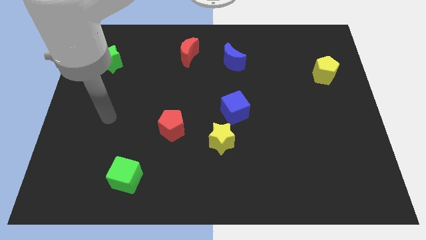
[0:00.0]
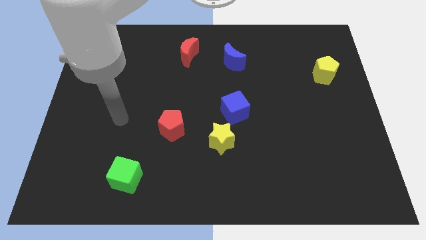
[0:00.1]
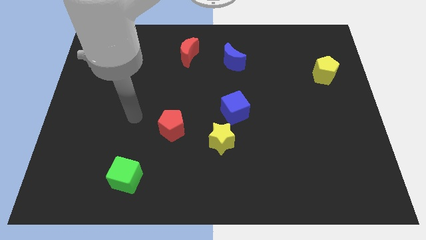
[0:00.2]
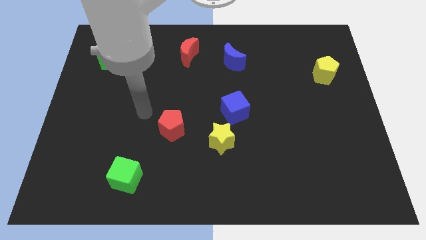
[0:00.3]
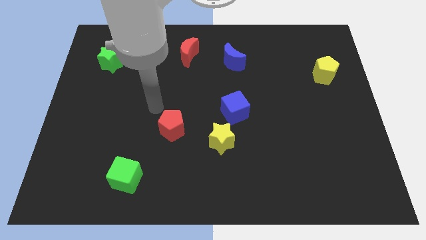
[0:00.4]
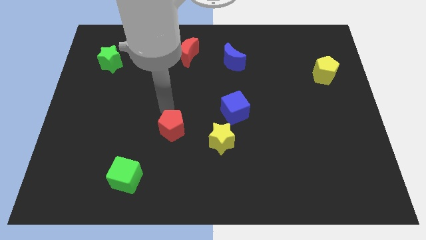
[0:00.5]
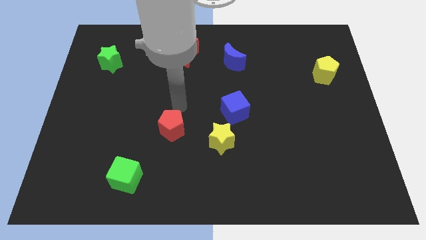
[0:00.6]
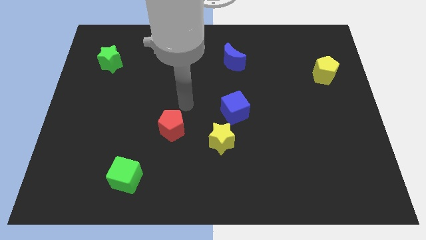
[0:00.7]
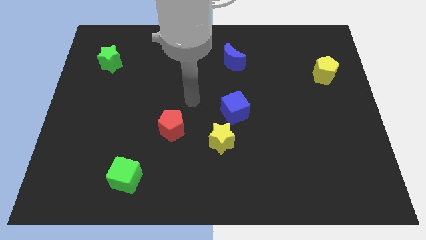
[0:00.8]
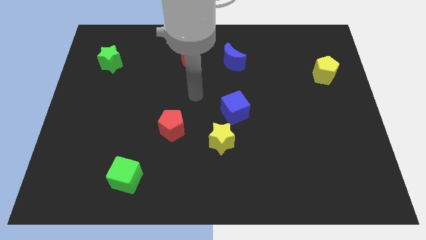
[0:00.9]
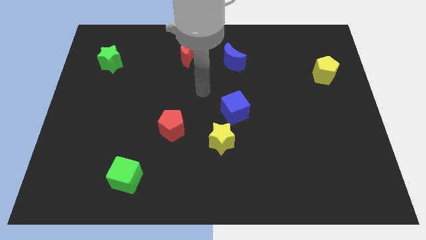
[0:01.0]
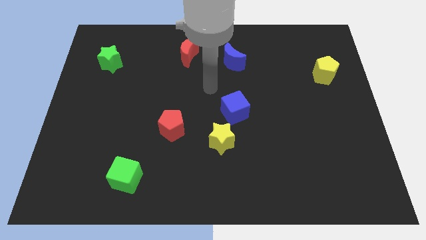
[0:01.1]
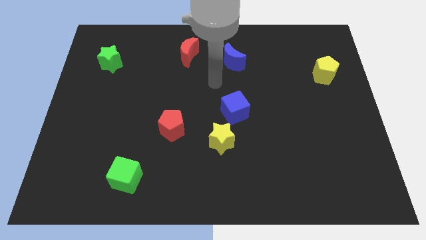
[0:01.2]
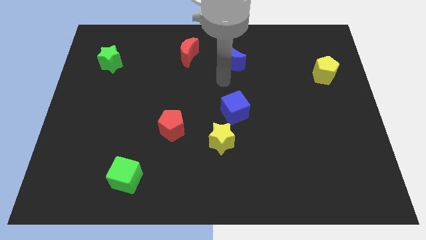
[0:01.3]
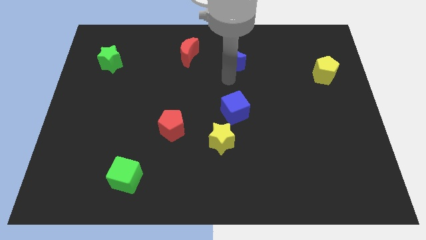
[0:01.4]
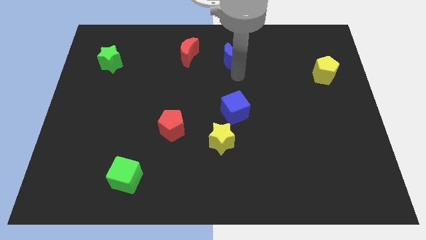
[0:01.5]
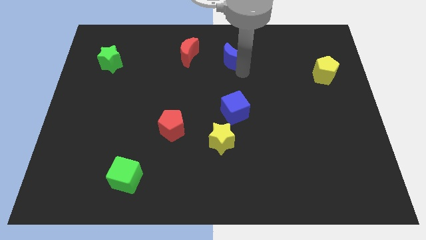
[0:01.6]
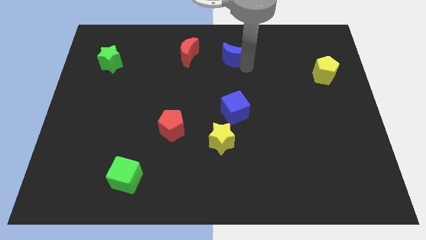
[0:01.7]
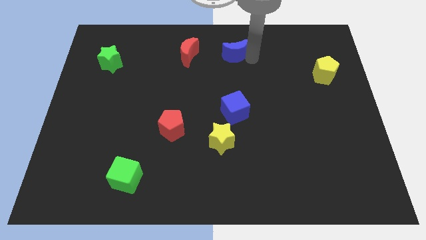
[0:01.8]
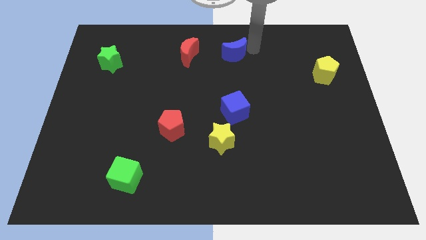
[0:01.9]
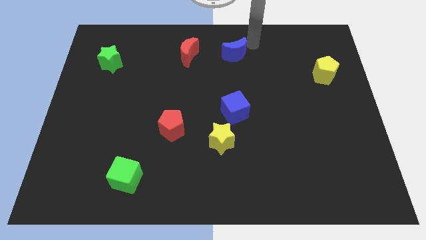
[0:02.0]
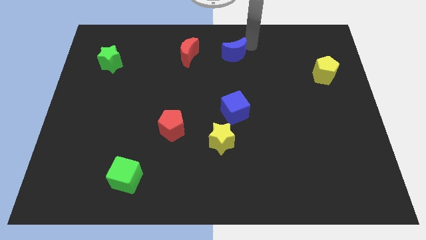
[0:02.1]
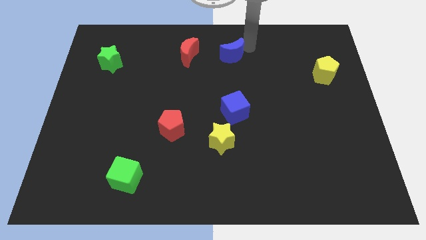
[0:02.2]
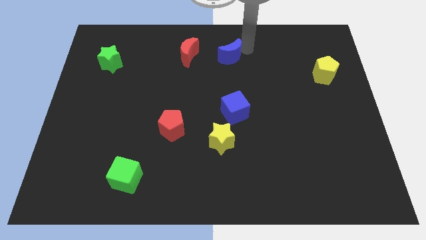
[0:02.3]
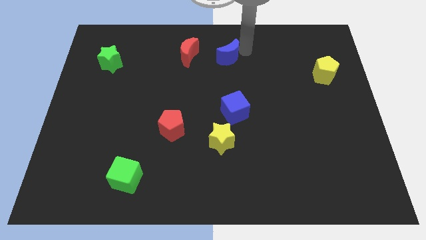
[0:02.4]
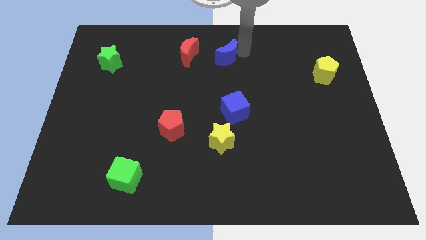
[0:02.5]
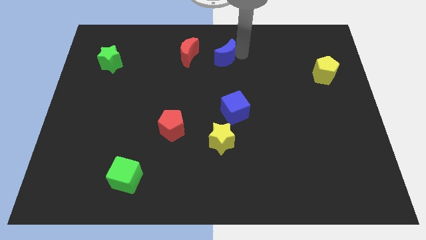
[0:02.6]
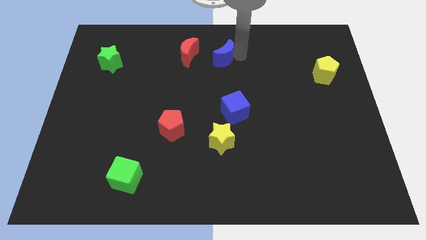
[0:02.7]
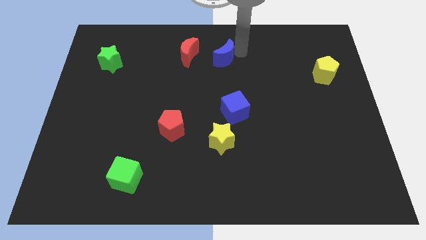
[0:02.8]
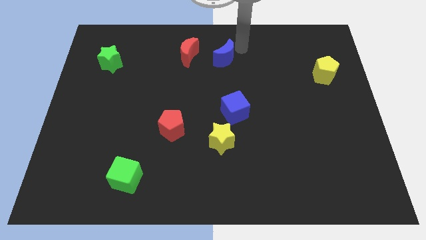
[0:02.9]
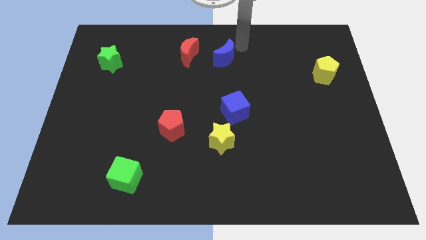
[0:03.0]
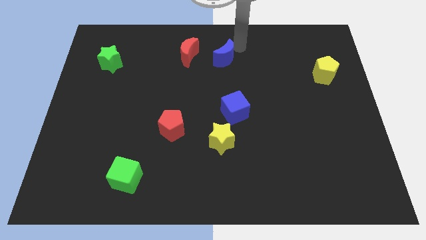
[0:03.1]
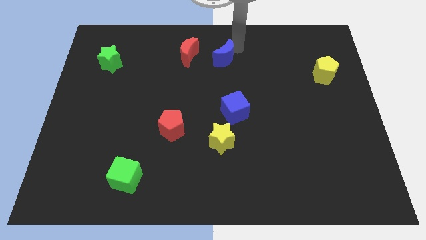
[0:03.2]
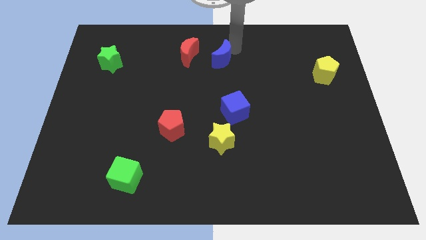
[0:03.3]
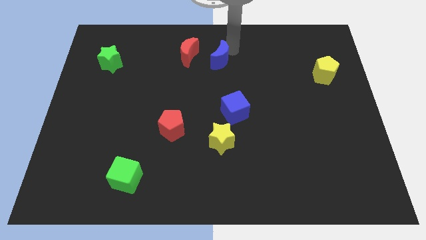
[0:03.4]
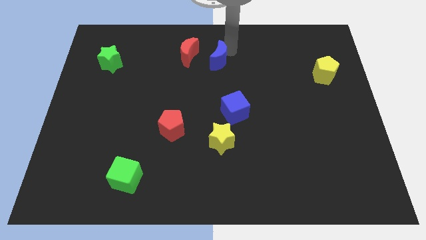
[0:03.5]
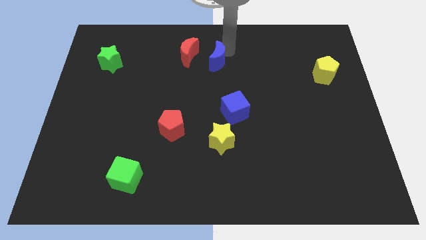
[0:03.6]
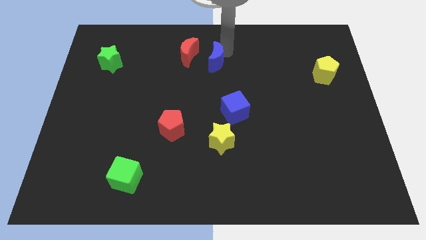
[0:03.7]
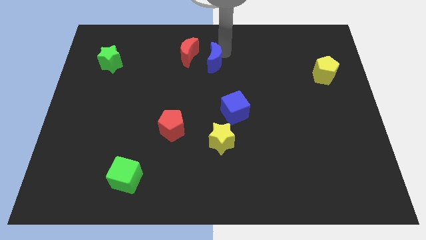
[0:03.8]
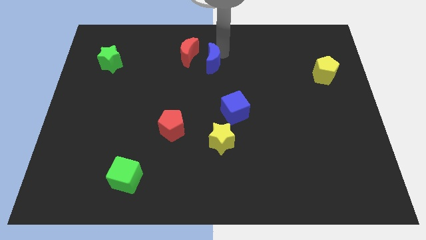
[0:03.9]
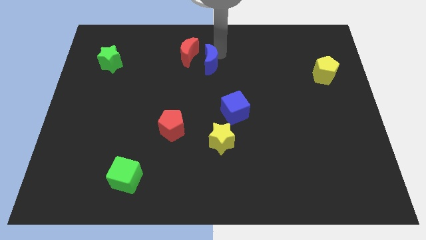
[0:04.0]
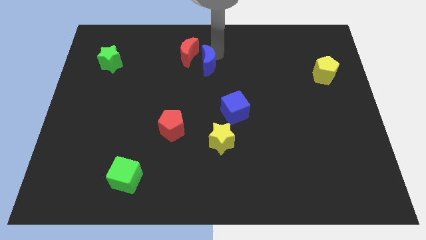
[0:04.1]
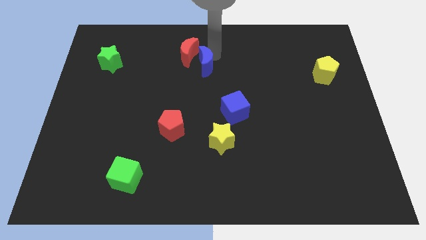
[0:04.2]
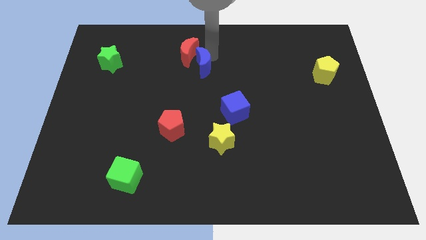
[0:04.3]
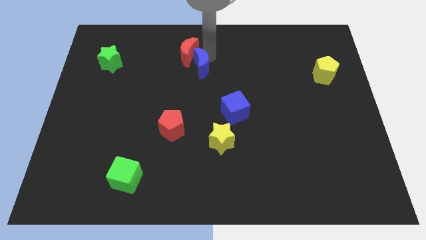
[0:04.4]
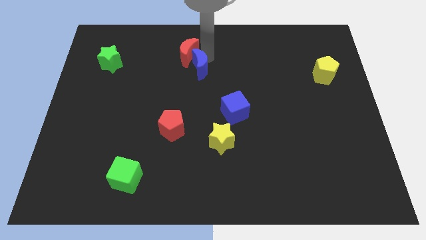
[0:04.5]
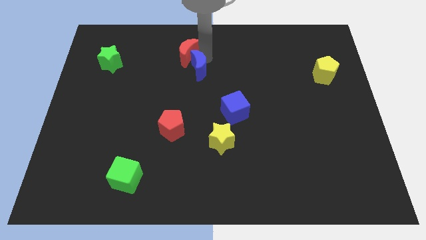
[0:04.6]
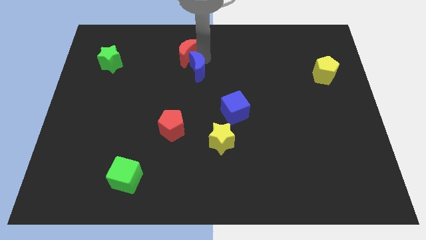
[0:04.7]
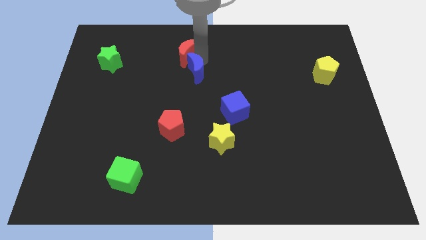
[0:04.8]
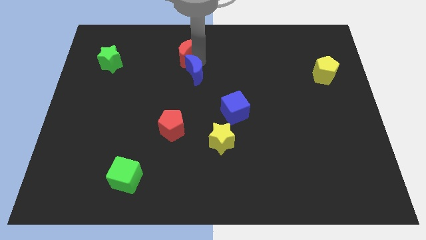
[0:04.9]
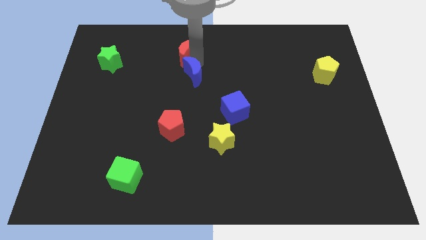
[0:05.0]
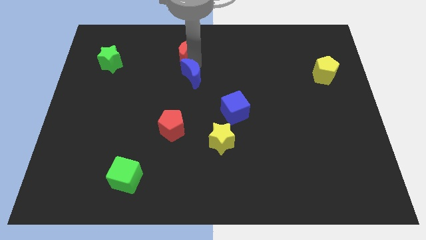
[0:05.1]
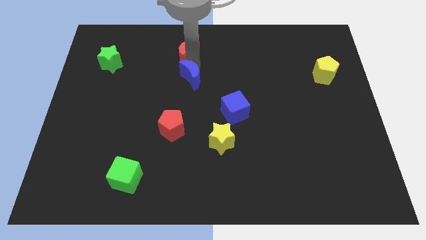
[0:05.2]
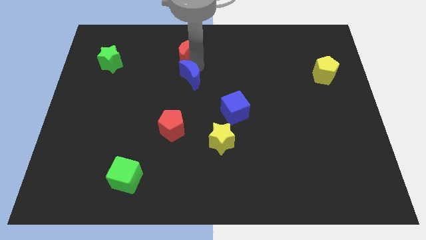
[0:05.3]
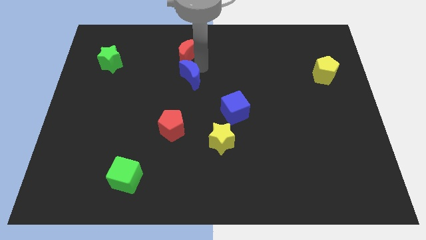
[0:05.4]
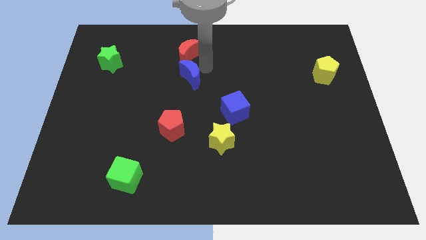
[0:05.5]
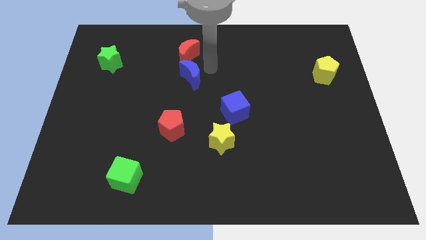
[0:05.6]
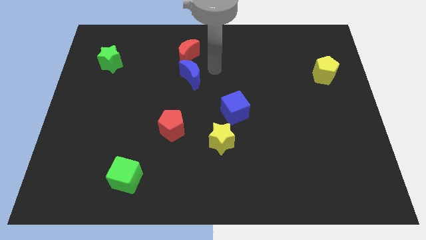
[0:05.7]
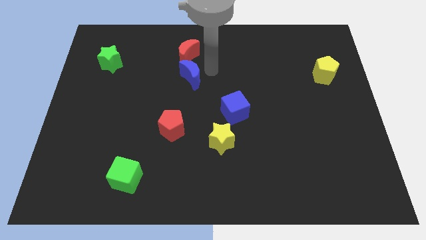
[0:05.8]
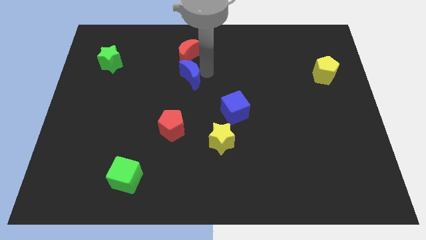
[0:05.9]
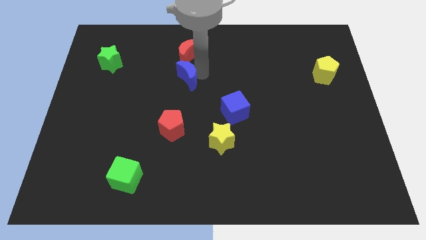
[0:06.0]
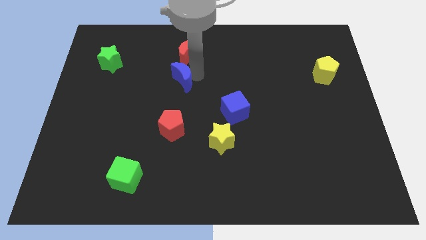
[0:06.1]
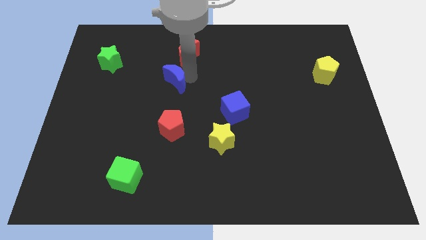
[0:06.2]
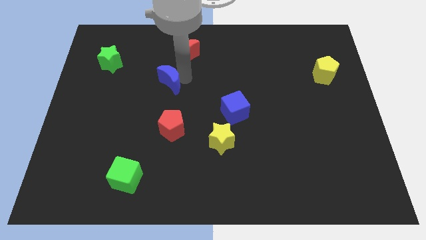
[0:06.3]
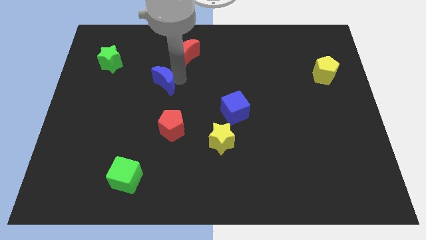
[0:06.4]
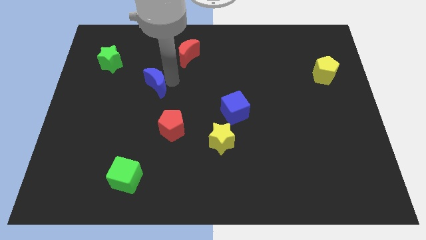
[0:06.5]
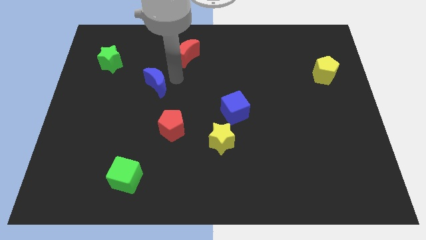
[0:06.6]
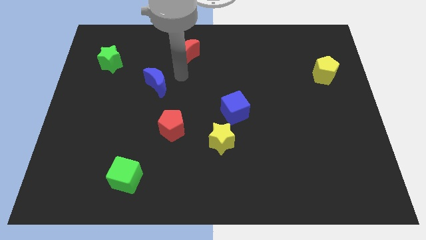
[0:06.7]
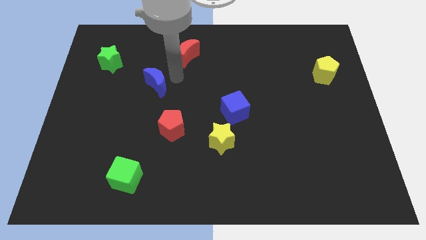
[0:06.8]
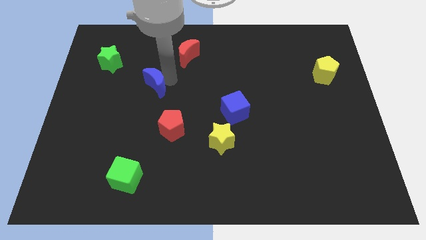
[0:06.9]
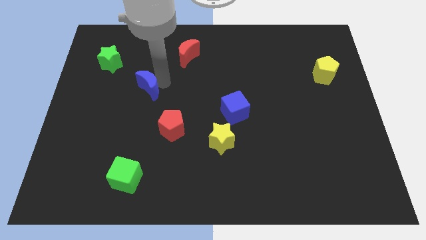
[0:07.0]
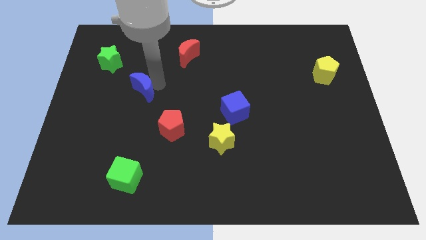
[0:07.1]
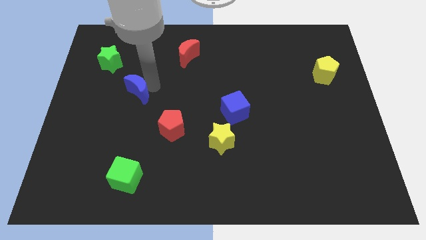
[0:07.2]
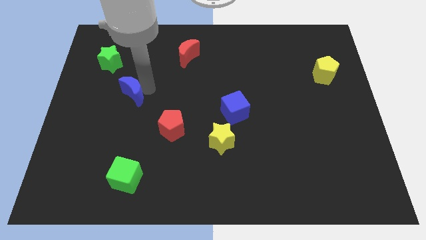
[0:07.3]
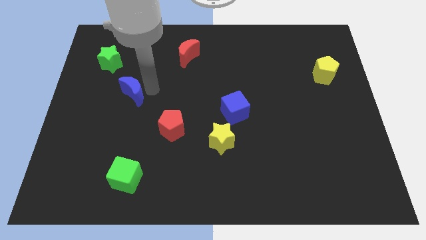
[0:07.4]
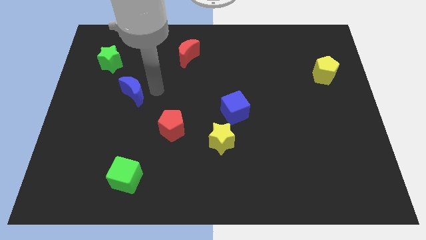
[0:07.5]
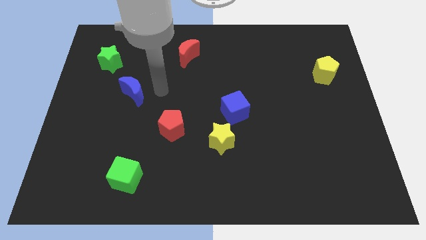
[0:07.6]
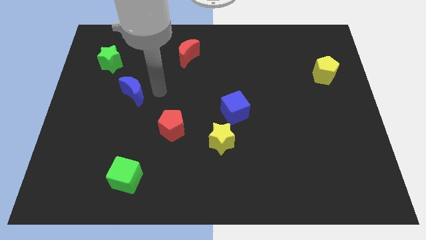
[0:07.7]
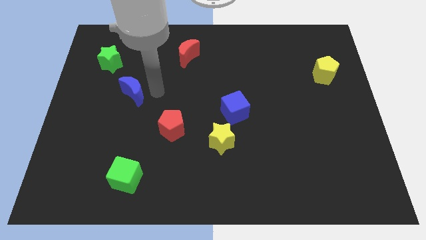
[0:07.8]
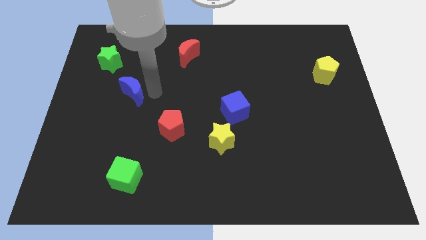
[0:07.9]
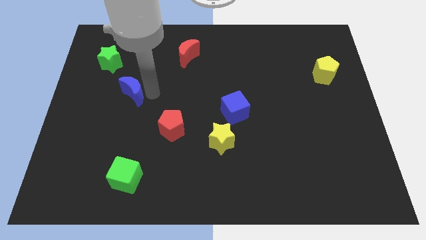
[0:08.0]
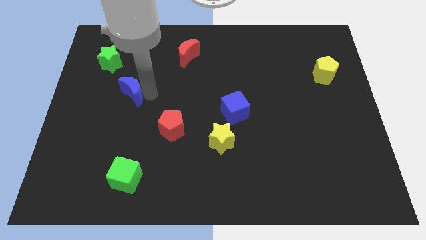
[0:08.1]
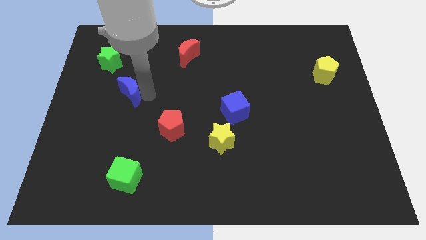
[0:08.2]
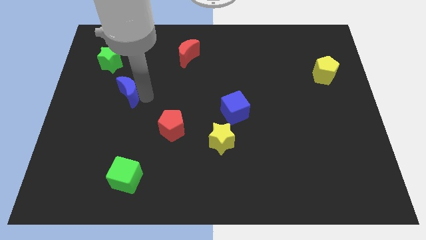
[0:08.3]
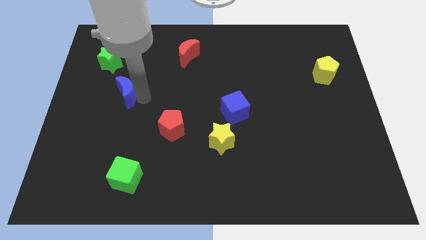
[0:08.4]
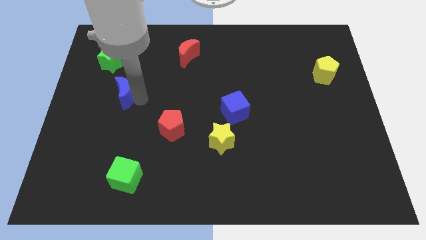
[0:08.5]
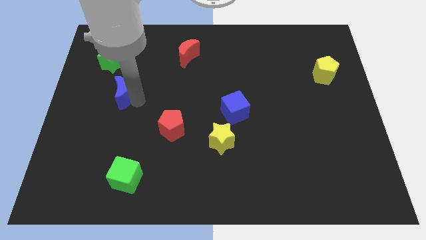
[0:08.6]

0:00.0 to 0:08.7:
push the blue moon below the green star
